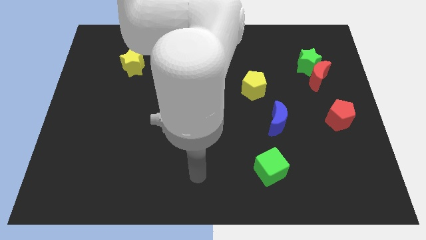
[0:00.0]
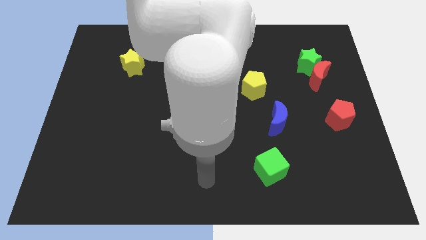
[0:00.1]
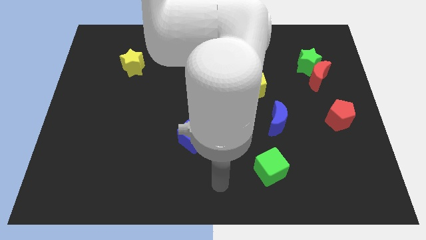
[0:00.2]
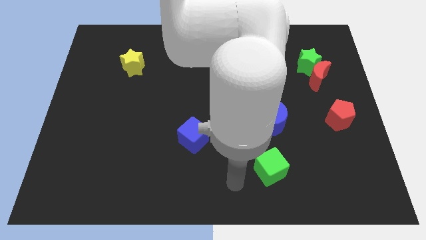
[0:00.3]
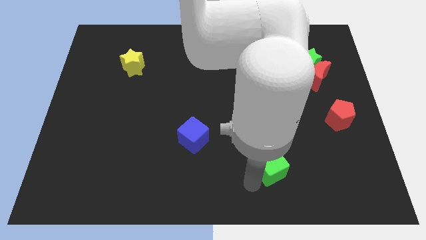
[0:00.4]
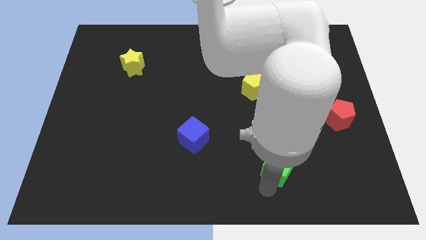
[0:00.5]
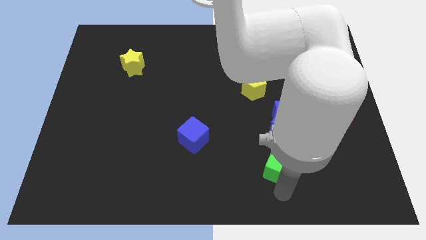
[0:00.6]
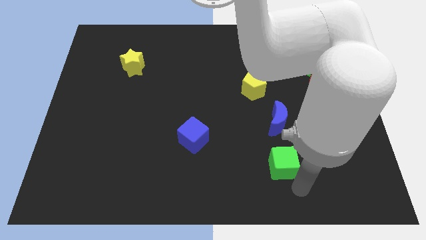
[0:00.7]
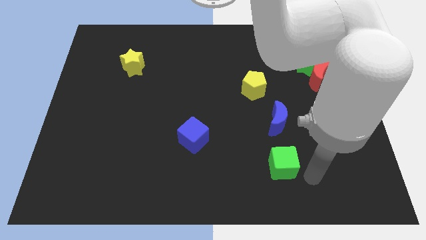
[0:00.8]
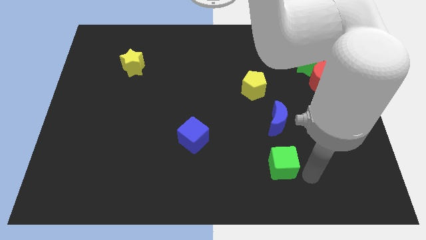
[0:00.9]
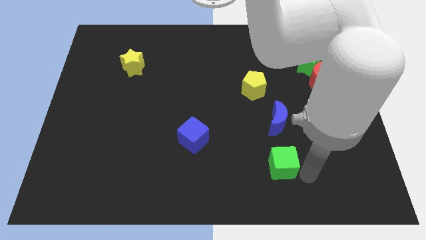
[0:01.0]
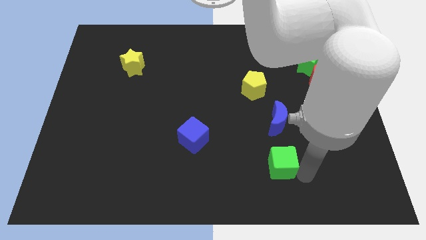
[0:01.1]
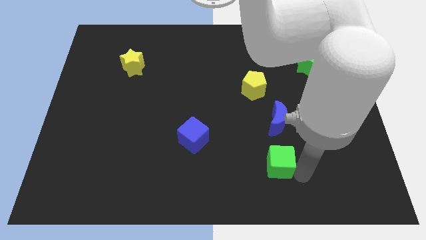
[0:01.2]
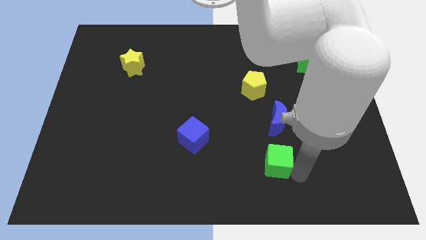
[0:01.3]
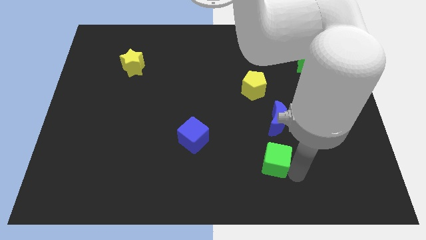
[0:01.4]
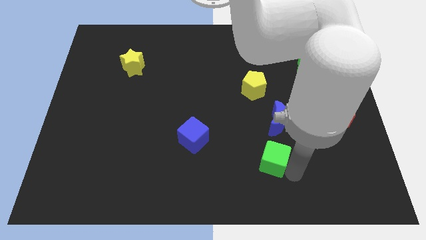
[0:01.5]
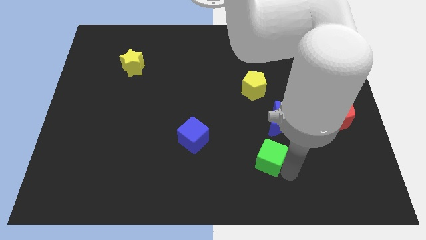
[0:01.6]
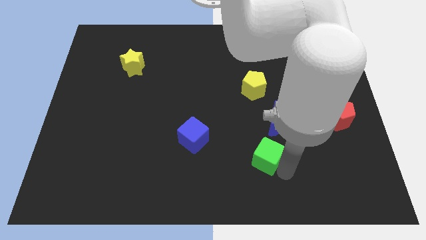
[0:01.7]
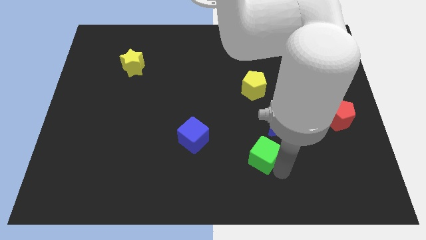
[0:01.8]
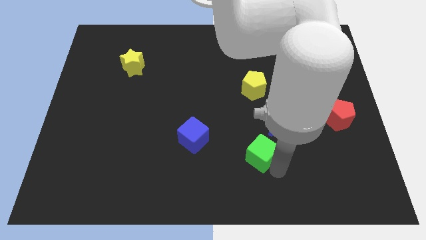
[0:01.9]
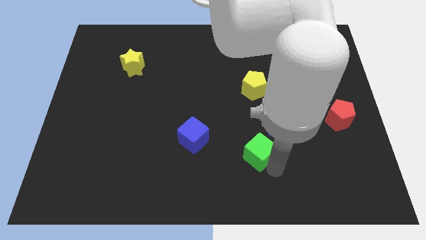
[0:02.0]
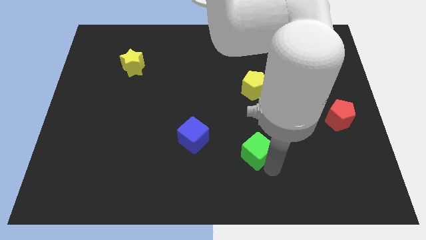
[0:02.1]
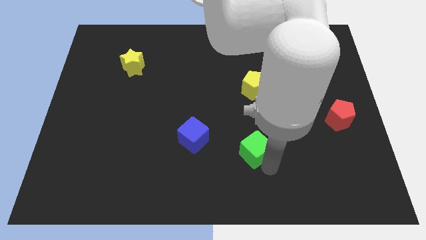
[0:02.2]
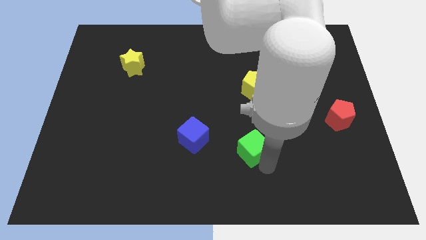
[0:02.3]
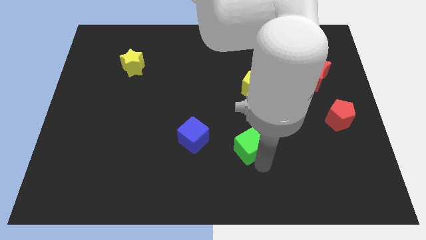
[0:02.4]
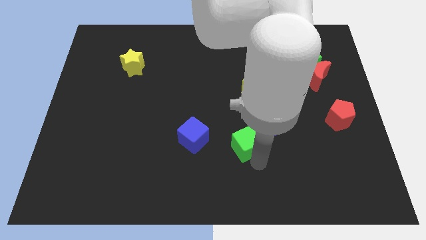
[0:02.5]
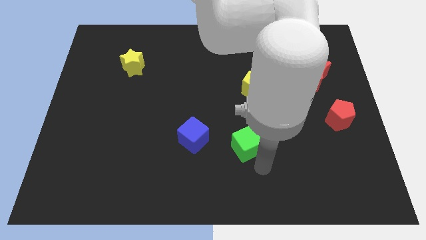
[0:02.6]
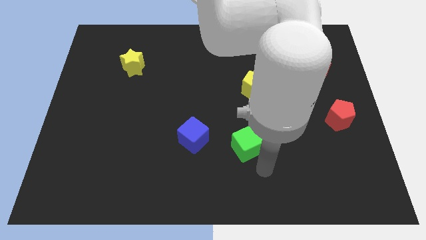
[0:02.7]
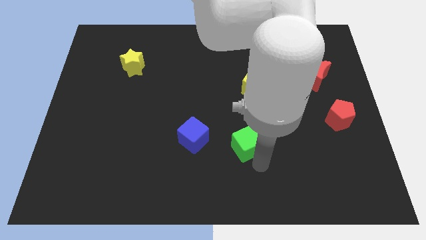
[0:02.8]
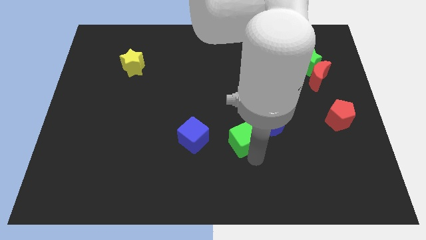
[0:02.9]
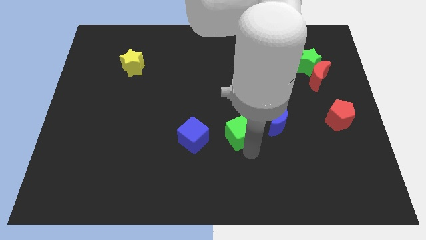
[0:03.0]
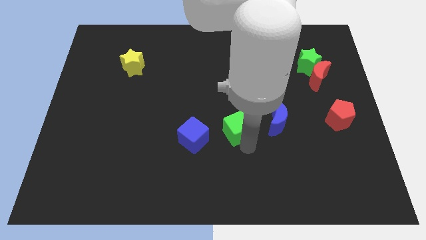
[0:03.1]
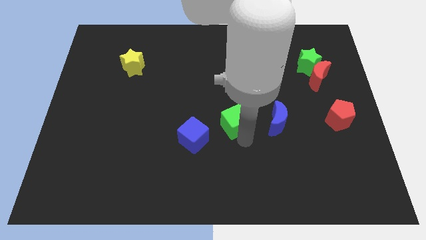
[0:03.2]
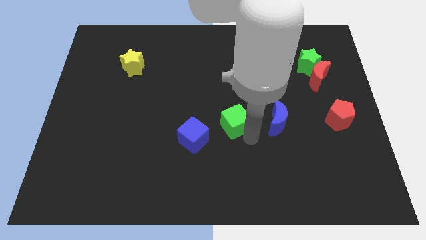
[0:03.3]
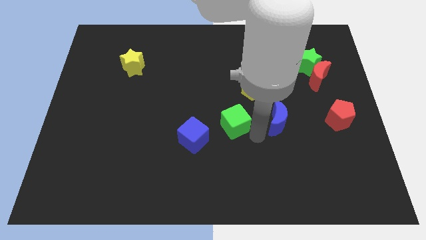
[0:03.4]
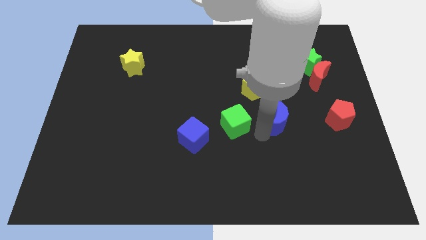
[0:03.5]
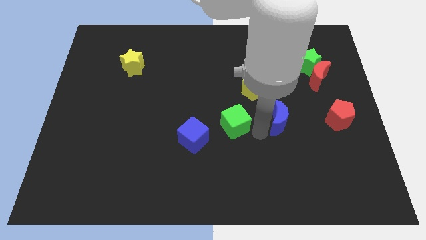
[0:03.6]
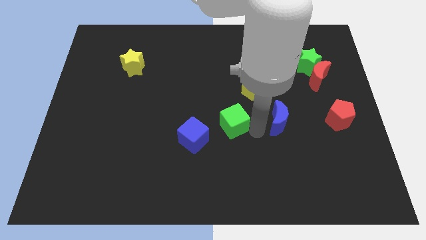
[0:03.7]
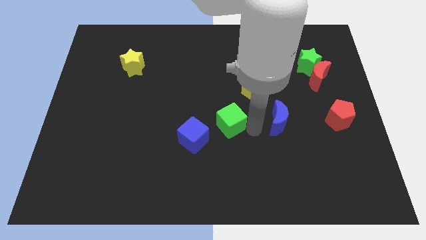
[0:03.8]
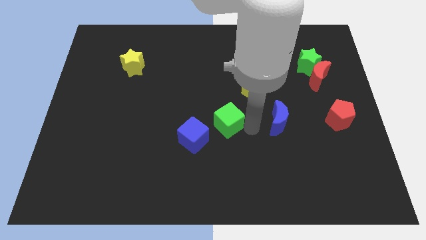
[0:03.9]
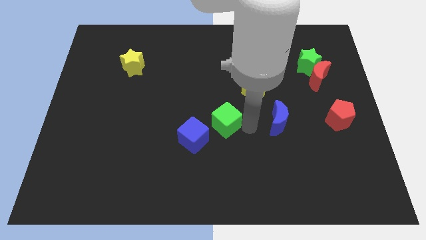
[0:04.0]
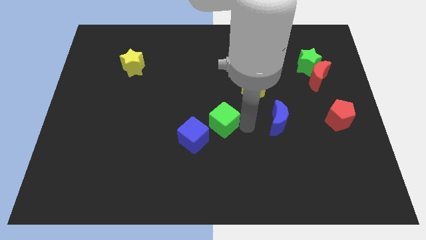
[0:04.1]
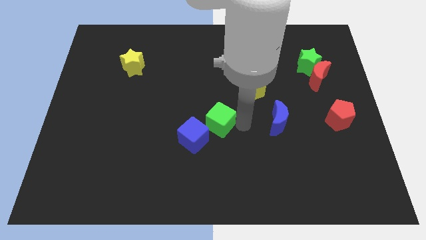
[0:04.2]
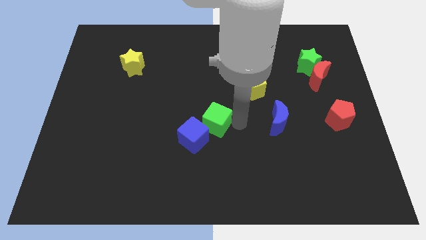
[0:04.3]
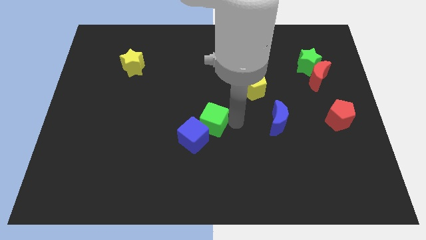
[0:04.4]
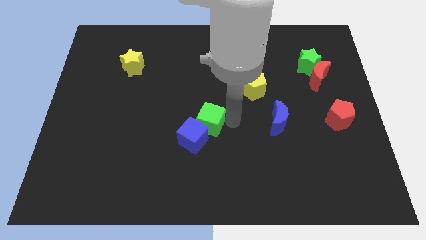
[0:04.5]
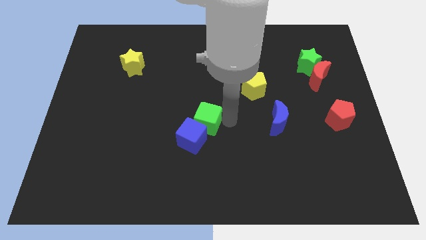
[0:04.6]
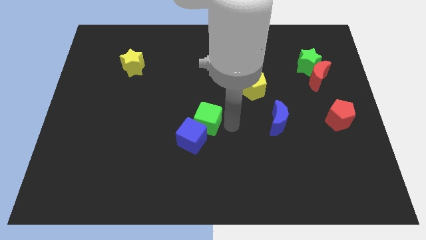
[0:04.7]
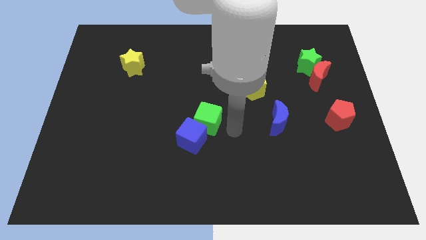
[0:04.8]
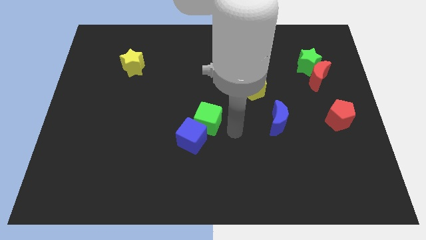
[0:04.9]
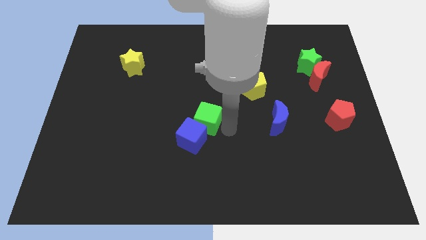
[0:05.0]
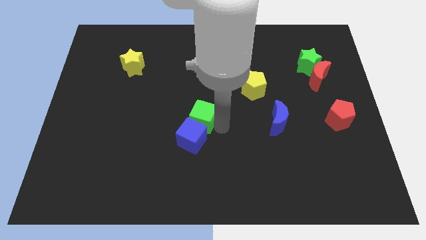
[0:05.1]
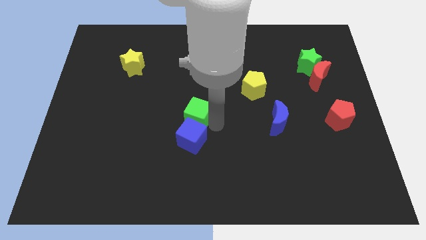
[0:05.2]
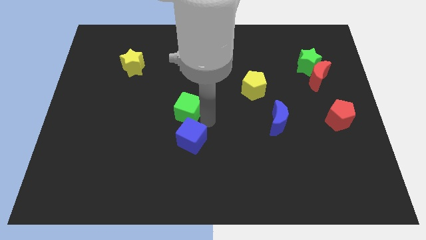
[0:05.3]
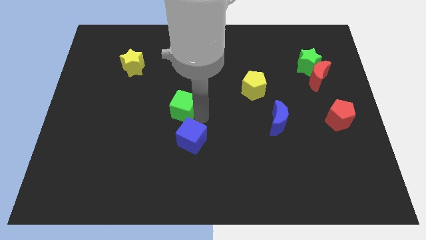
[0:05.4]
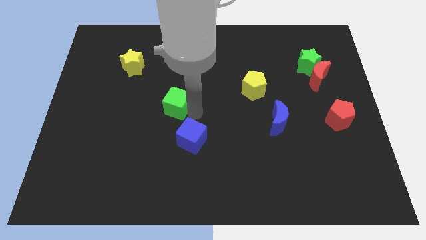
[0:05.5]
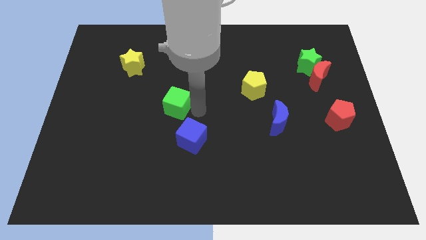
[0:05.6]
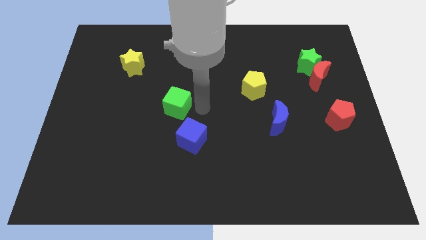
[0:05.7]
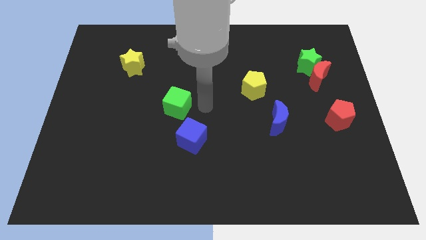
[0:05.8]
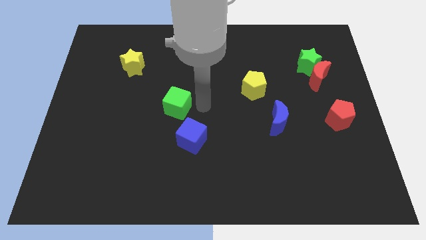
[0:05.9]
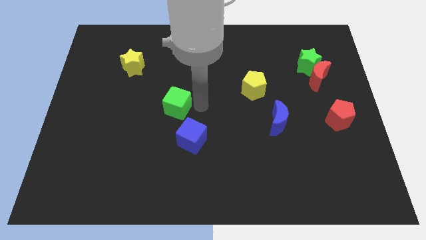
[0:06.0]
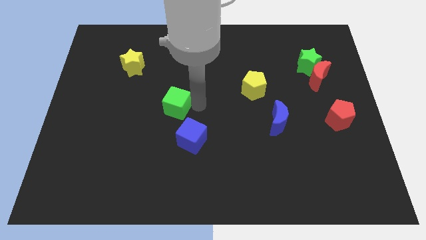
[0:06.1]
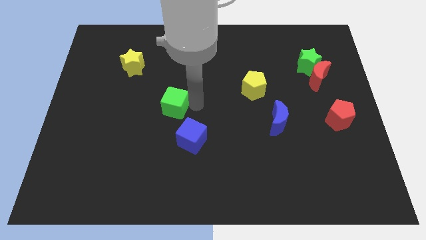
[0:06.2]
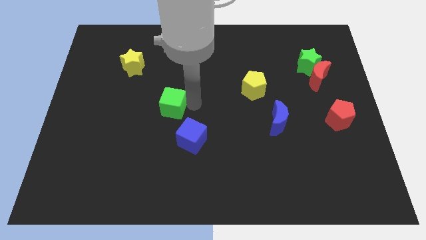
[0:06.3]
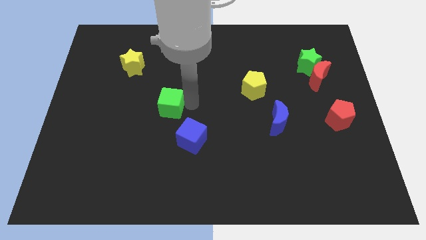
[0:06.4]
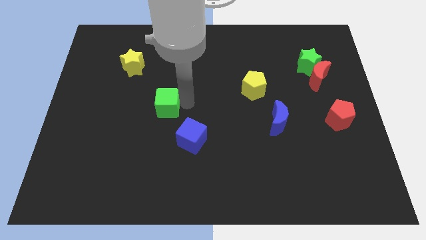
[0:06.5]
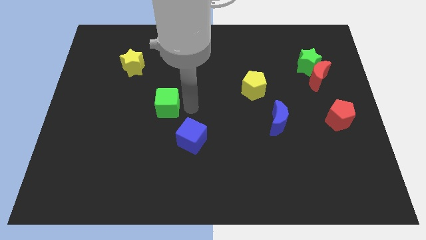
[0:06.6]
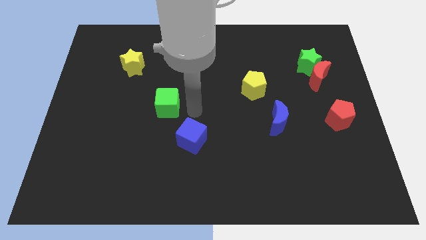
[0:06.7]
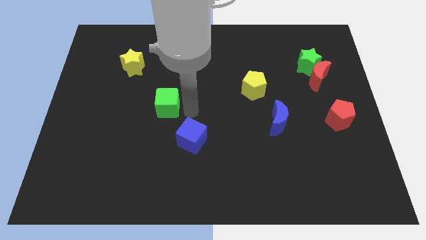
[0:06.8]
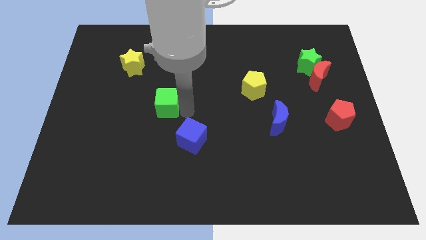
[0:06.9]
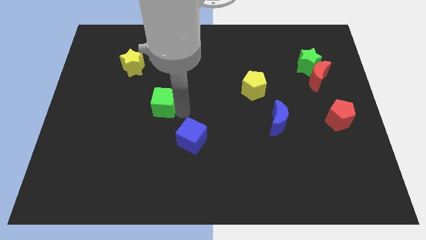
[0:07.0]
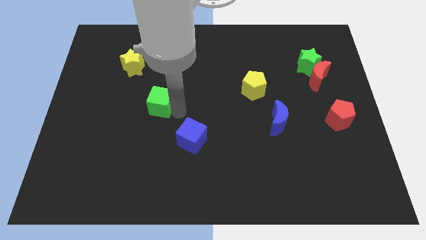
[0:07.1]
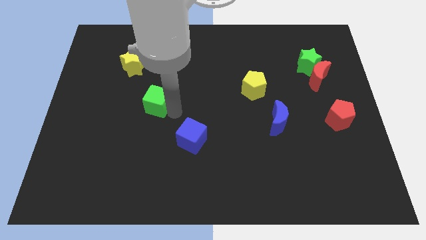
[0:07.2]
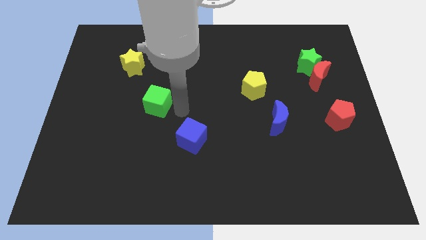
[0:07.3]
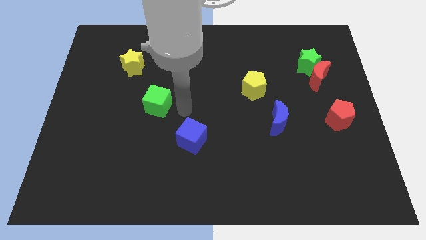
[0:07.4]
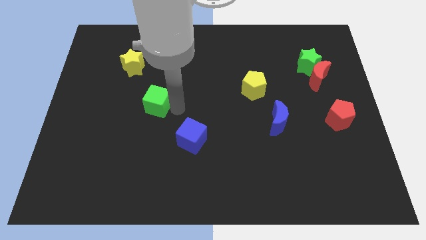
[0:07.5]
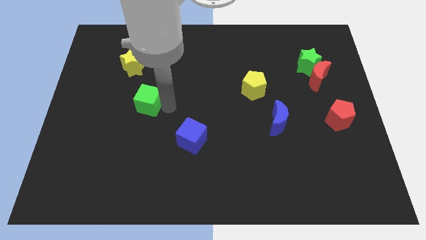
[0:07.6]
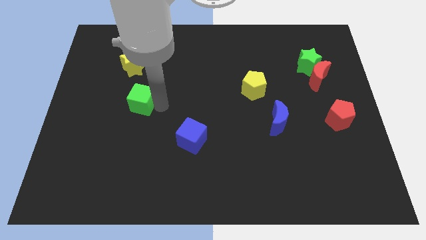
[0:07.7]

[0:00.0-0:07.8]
put the green cube to the bottom of the yellow star
